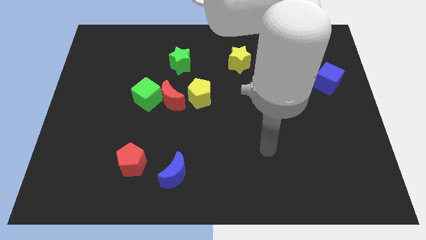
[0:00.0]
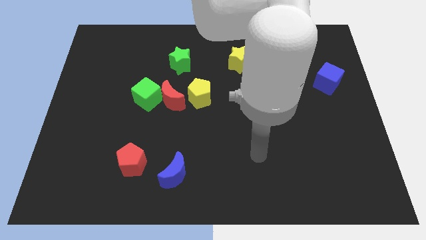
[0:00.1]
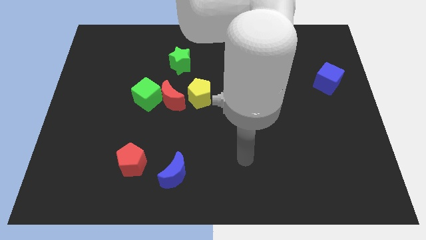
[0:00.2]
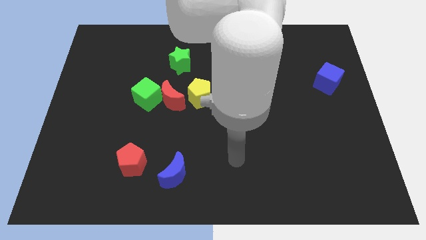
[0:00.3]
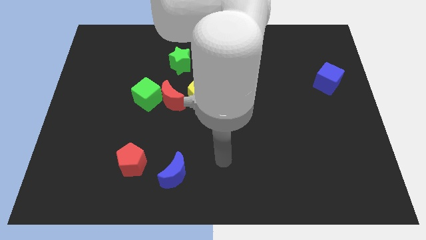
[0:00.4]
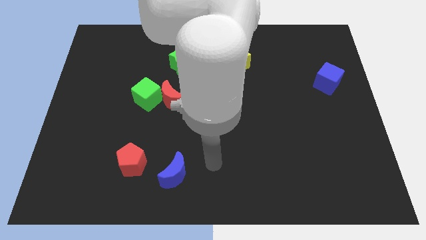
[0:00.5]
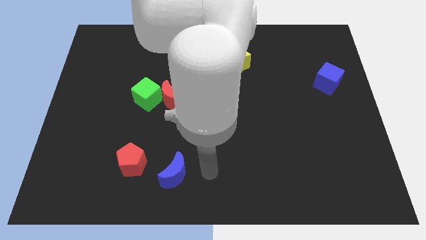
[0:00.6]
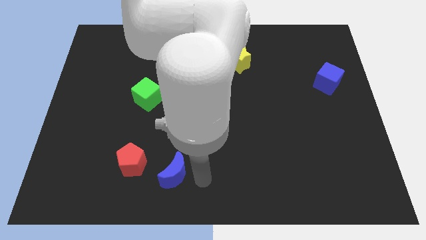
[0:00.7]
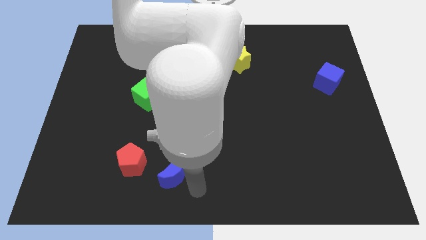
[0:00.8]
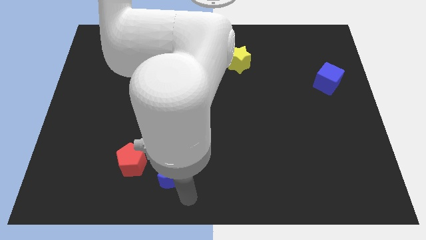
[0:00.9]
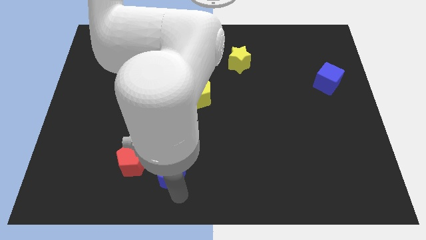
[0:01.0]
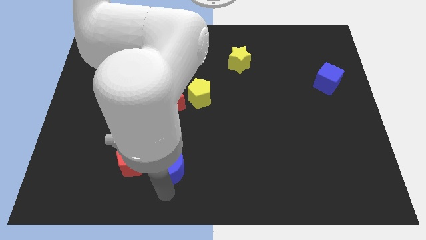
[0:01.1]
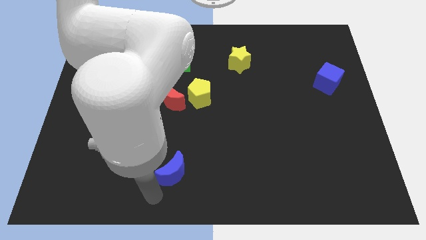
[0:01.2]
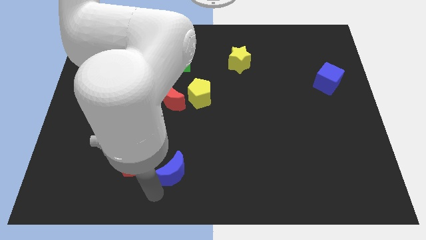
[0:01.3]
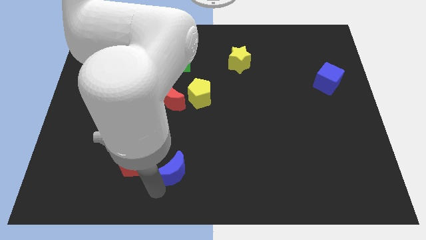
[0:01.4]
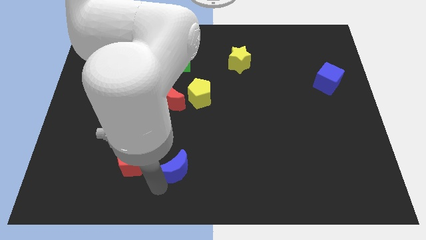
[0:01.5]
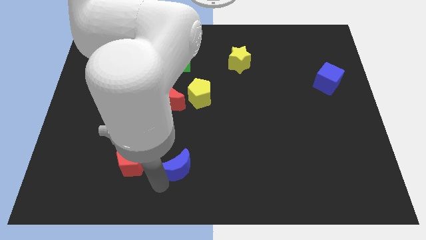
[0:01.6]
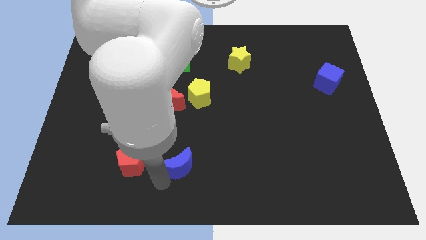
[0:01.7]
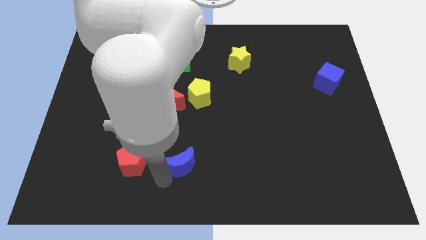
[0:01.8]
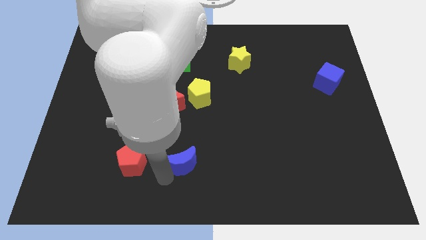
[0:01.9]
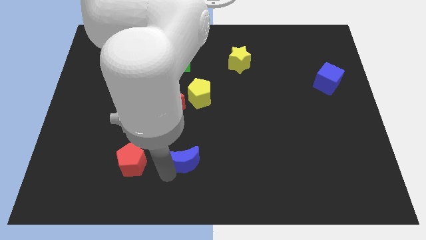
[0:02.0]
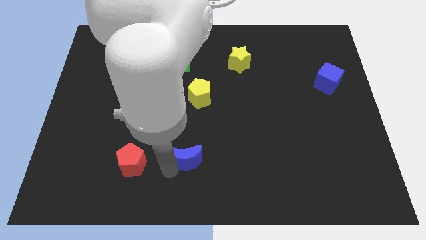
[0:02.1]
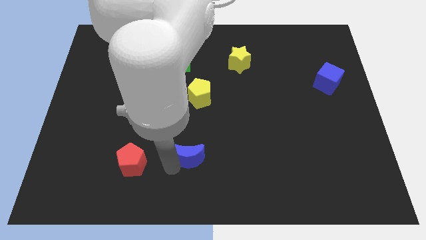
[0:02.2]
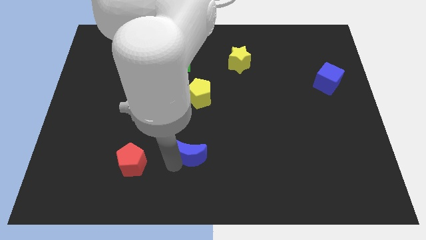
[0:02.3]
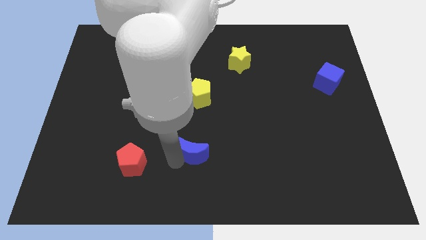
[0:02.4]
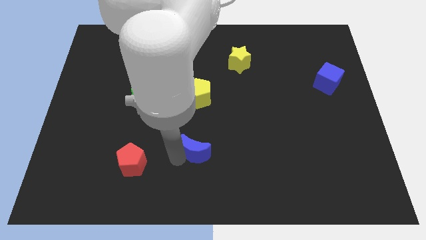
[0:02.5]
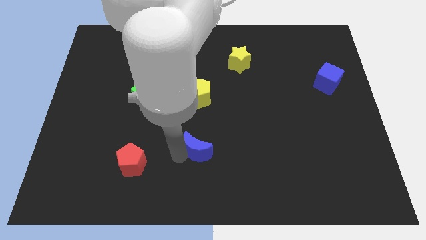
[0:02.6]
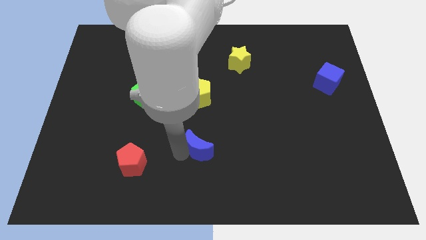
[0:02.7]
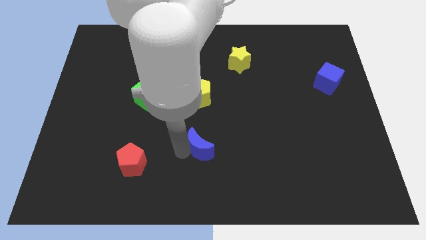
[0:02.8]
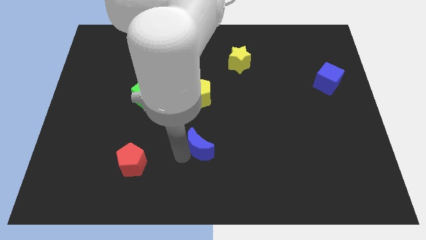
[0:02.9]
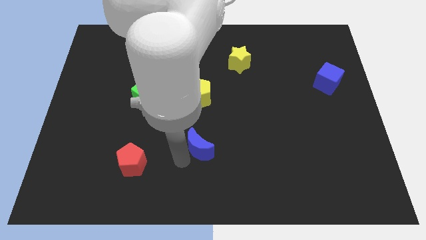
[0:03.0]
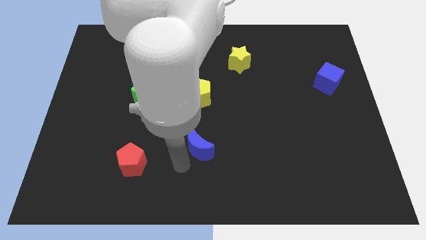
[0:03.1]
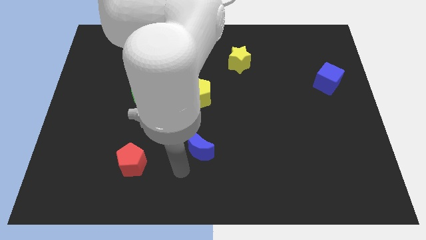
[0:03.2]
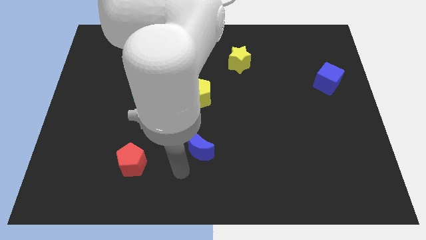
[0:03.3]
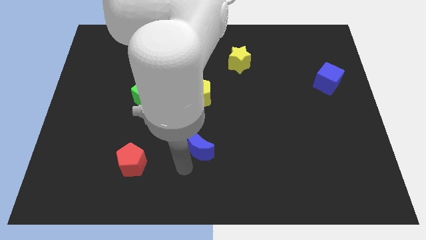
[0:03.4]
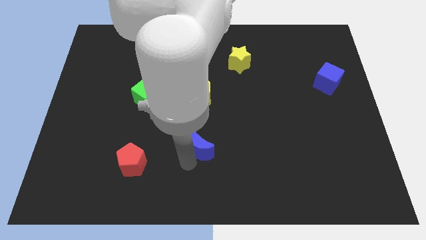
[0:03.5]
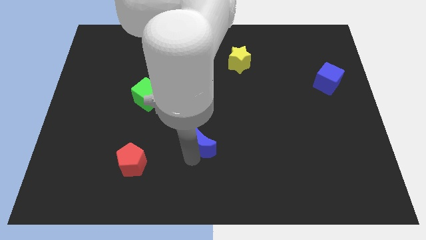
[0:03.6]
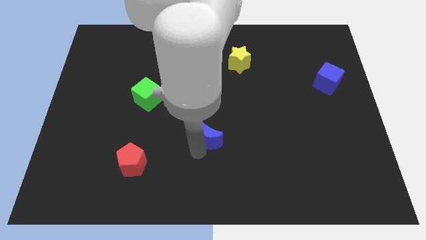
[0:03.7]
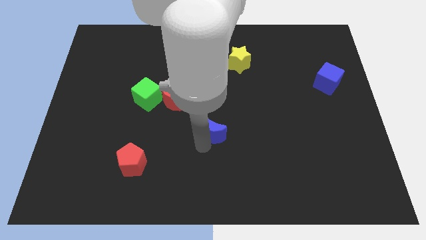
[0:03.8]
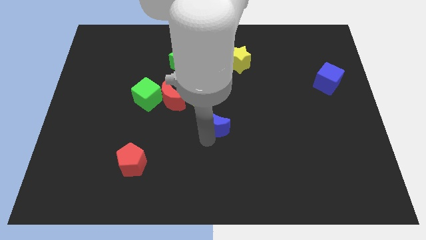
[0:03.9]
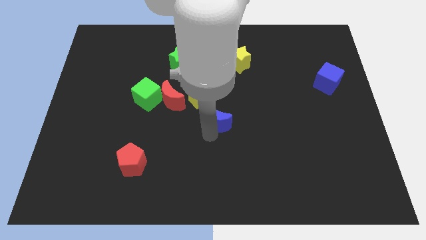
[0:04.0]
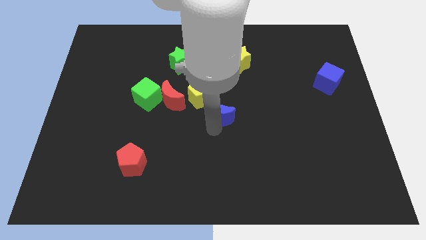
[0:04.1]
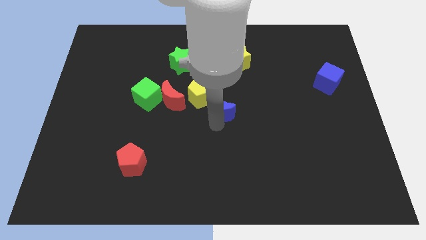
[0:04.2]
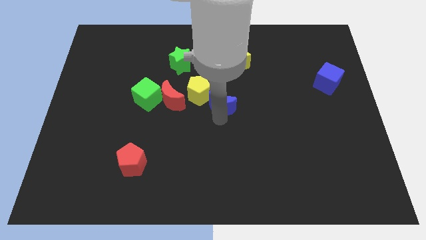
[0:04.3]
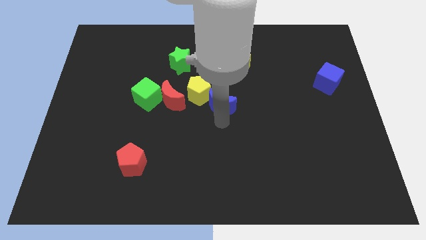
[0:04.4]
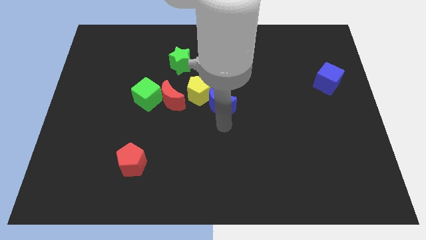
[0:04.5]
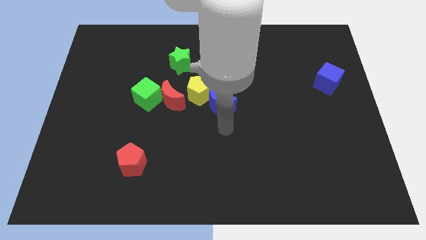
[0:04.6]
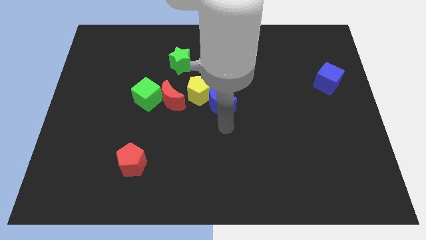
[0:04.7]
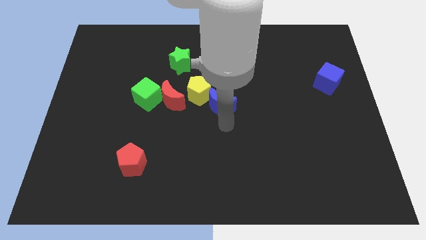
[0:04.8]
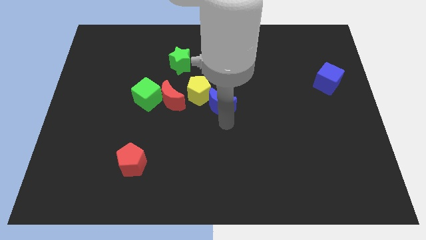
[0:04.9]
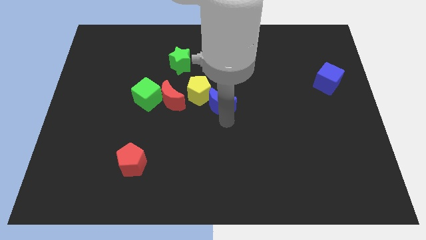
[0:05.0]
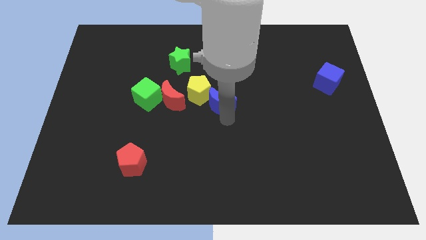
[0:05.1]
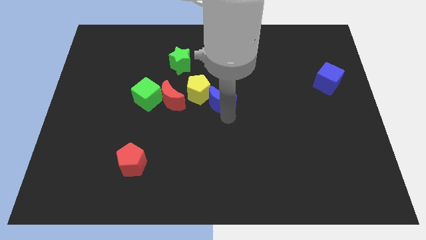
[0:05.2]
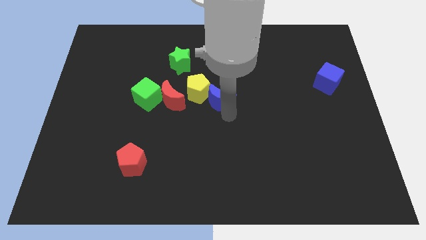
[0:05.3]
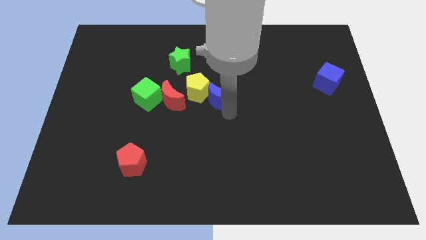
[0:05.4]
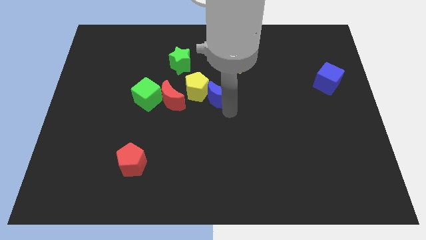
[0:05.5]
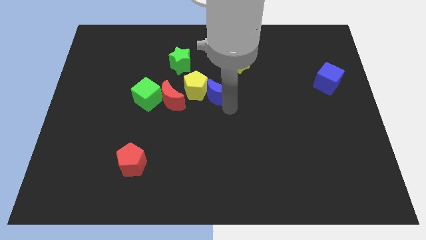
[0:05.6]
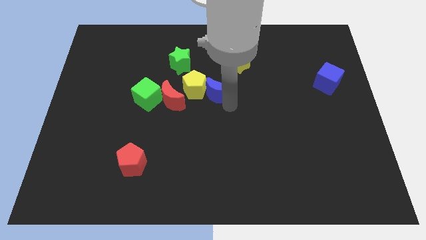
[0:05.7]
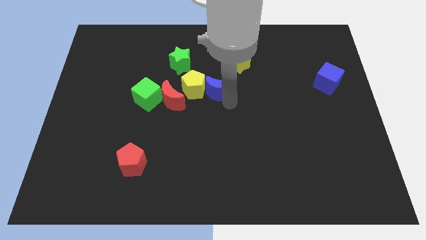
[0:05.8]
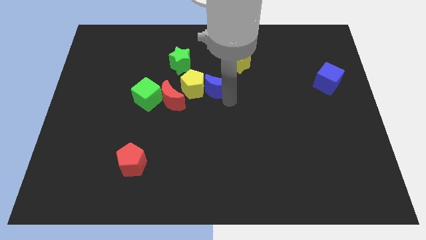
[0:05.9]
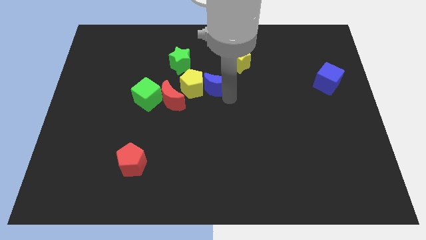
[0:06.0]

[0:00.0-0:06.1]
push the blue moon diagonally down and to the right of the green star
